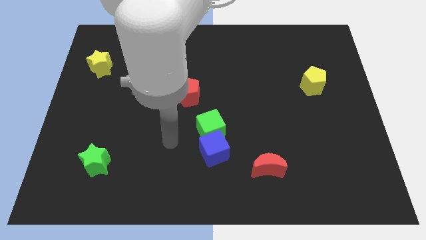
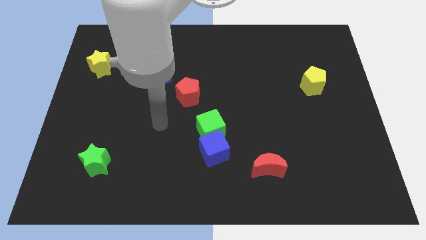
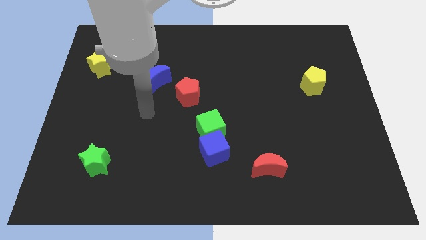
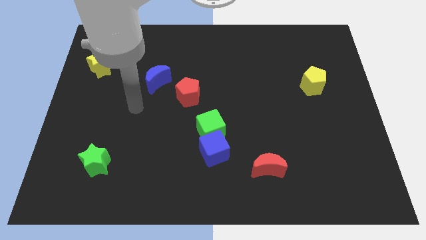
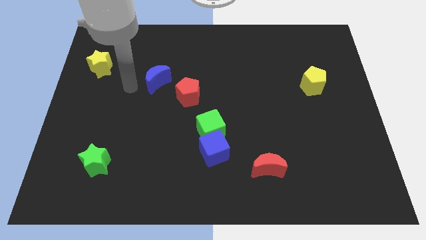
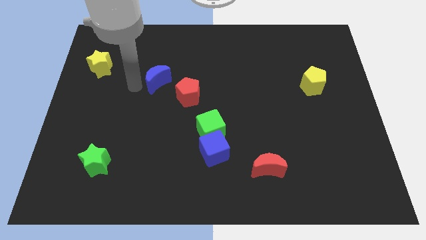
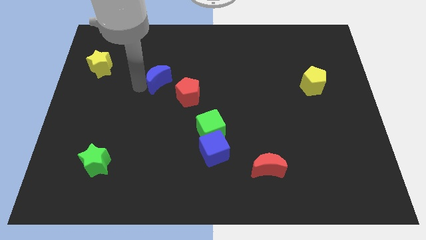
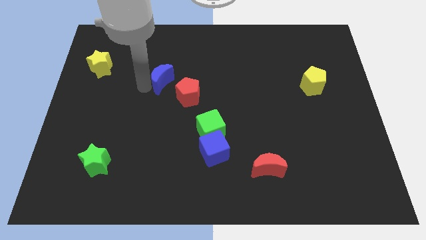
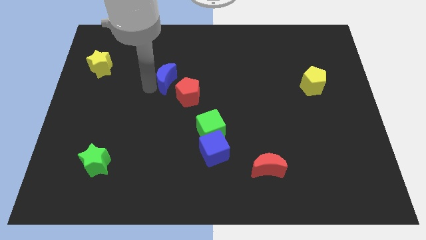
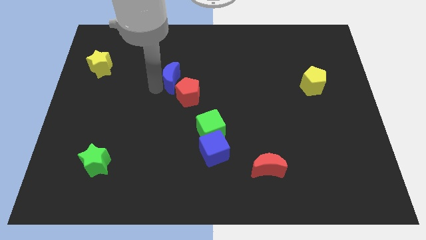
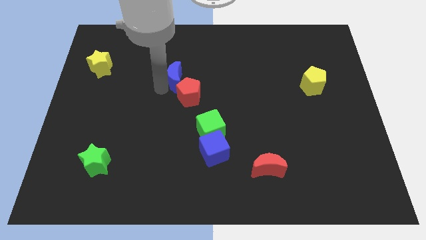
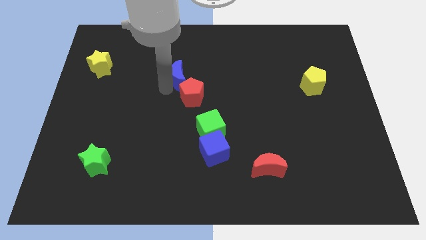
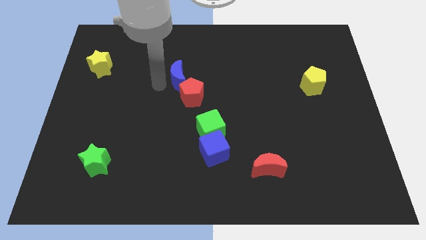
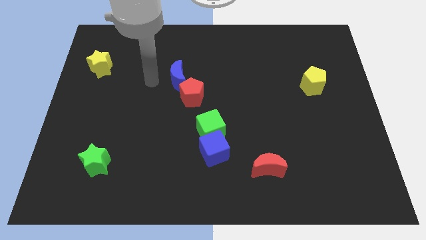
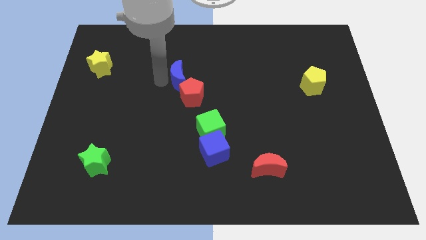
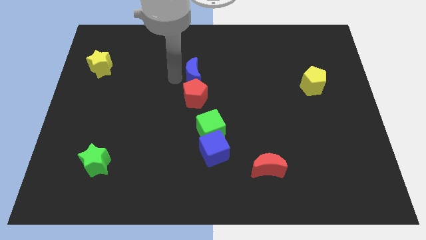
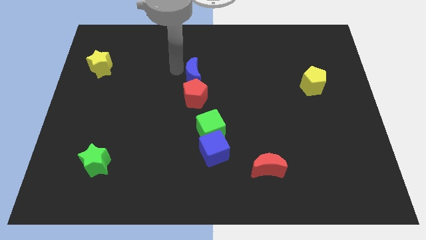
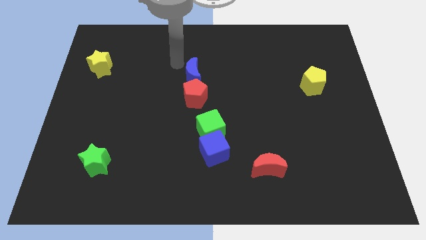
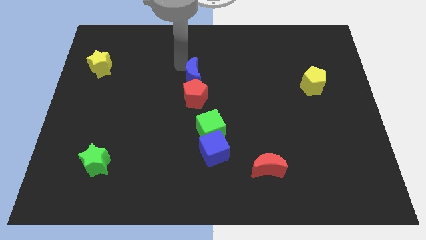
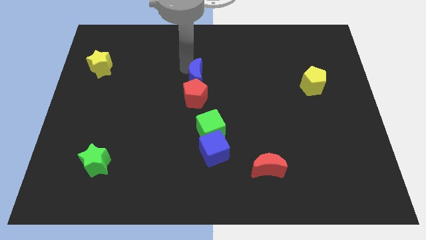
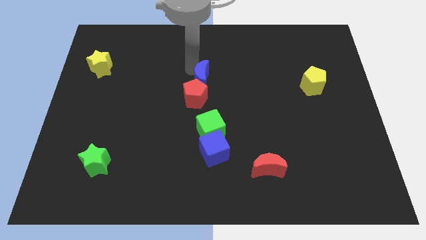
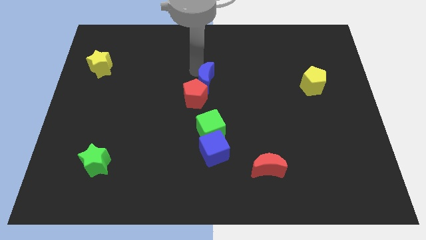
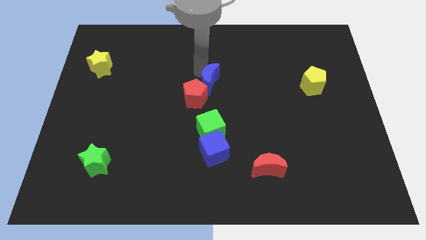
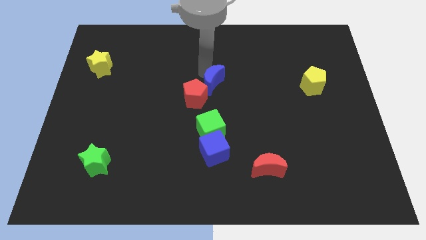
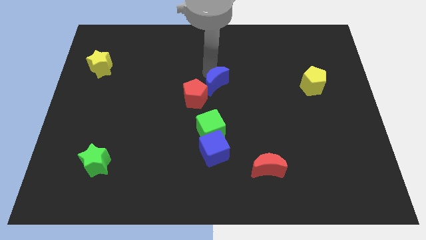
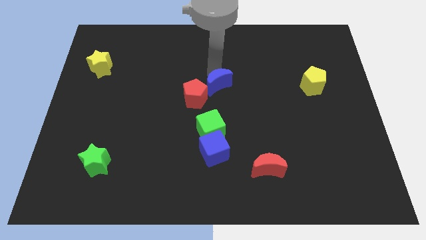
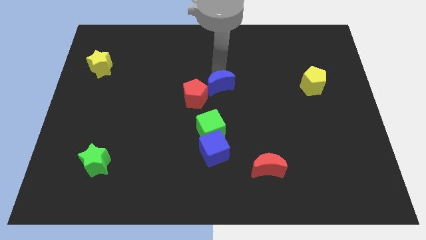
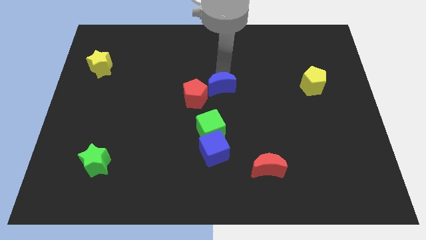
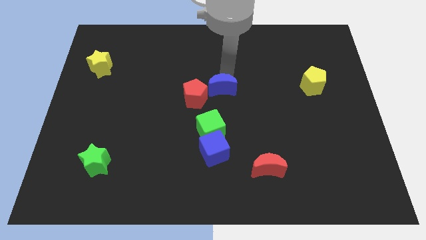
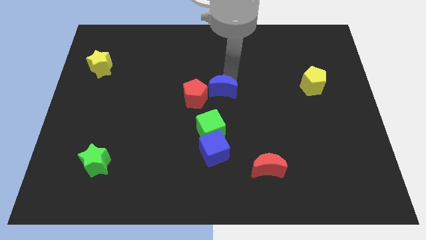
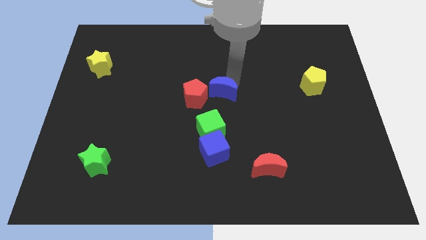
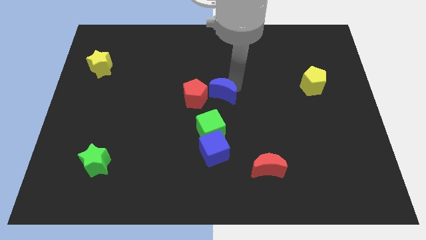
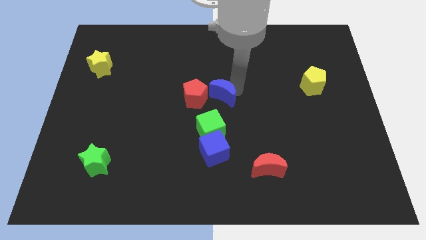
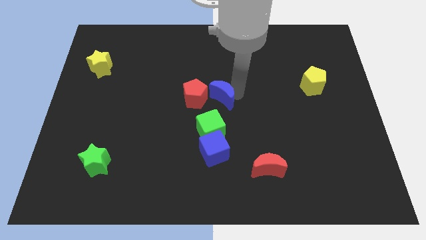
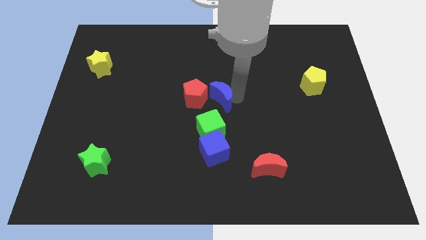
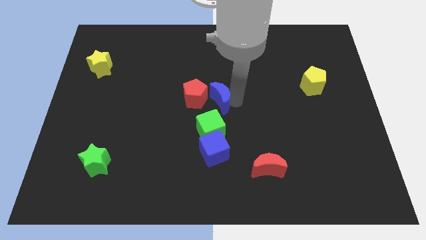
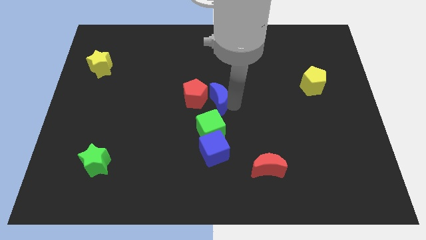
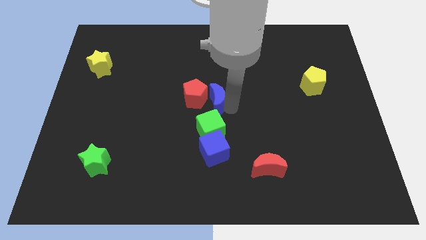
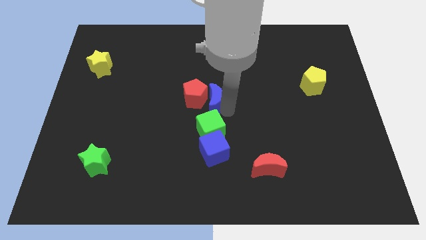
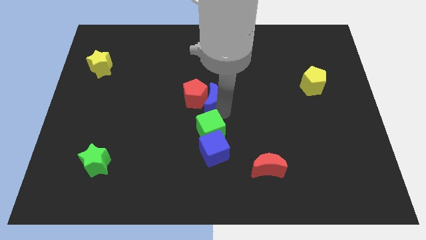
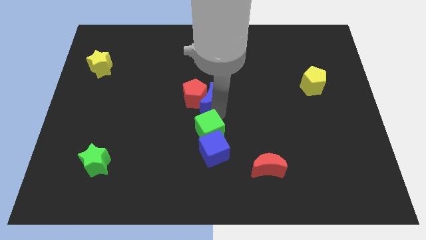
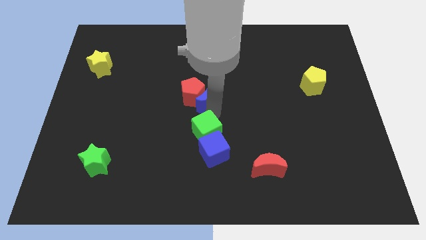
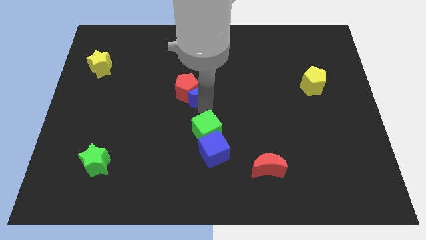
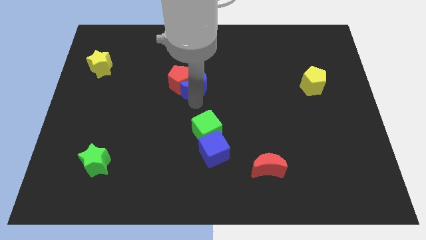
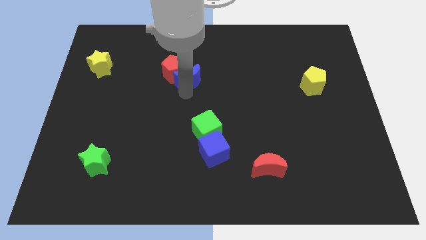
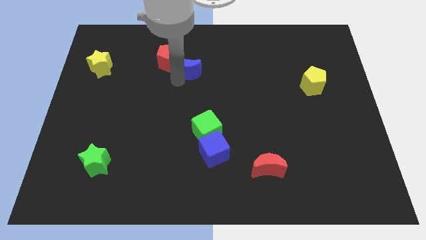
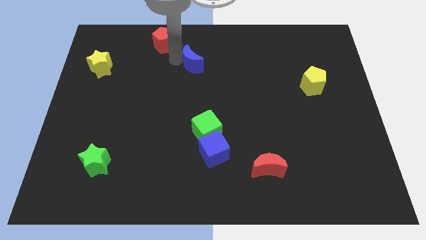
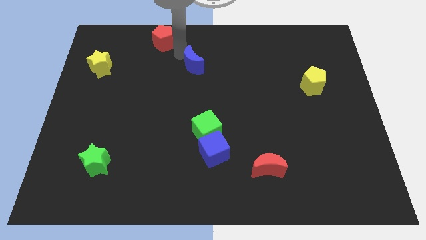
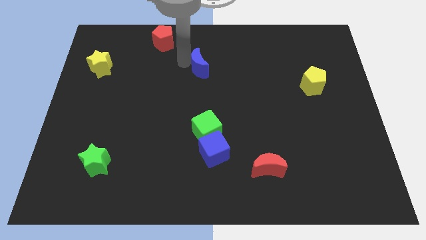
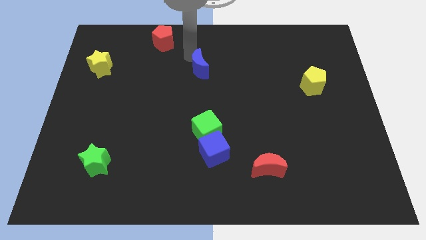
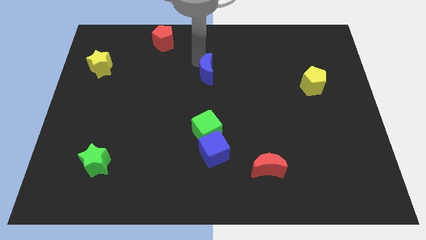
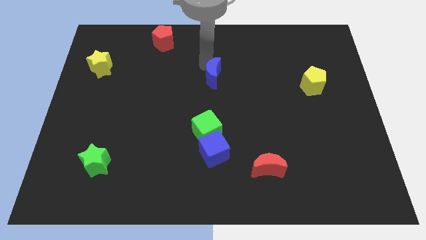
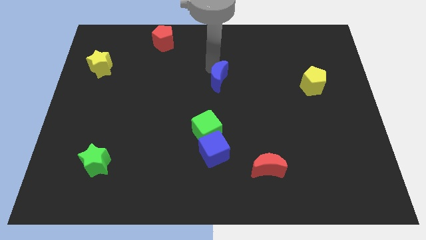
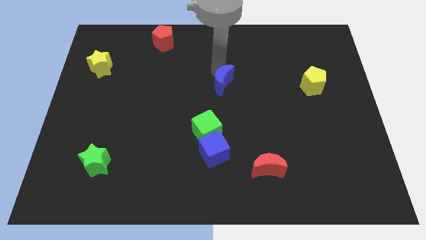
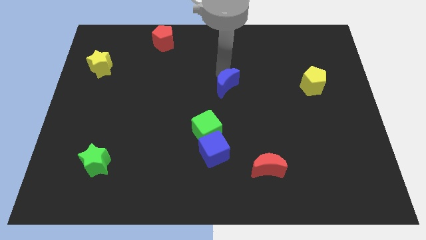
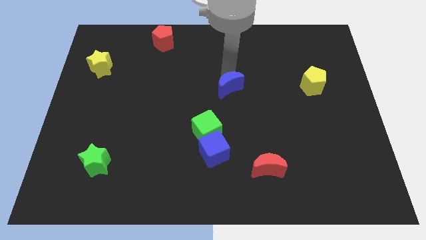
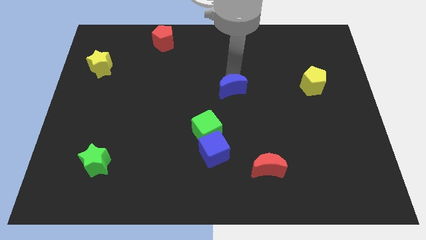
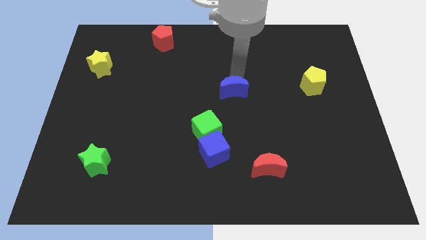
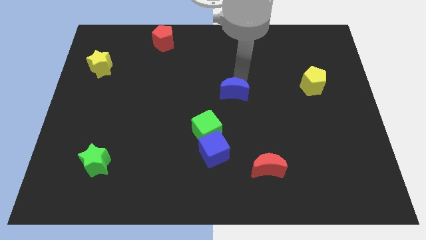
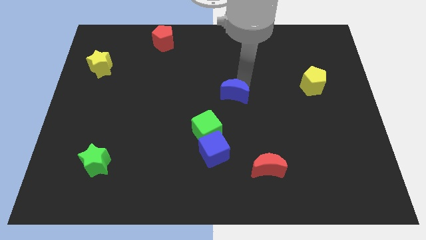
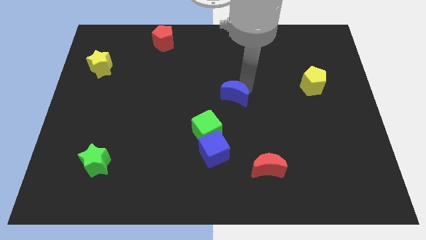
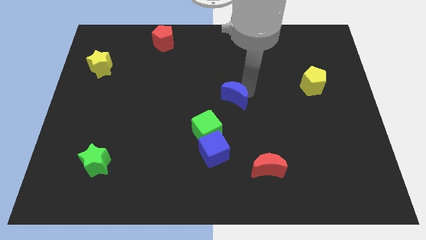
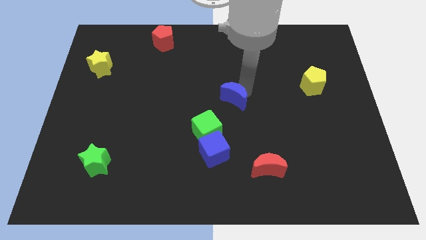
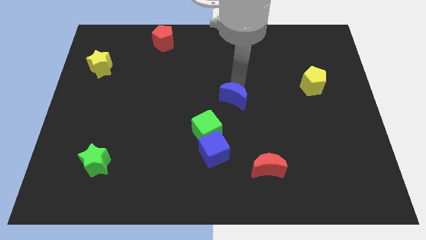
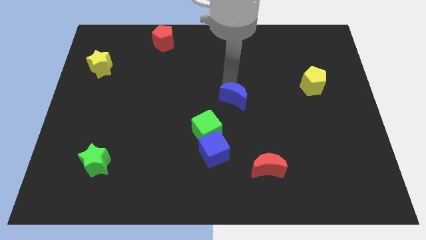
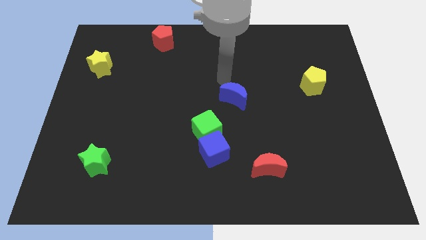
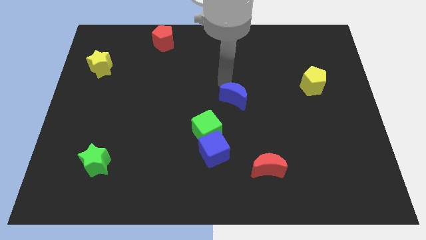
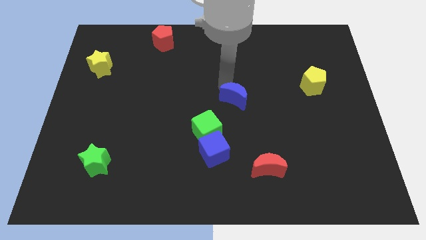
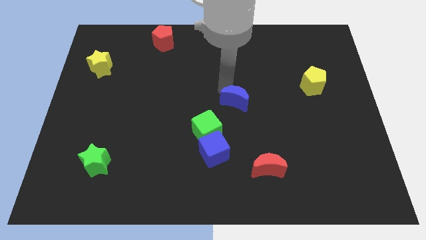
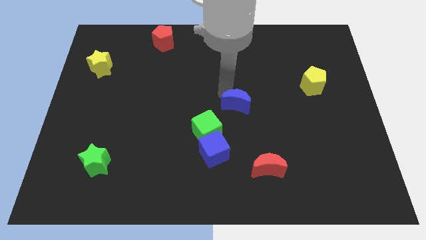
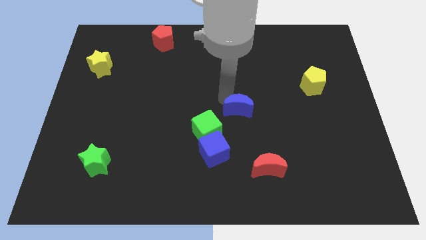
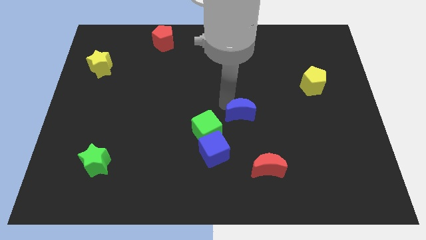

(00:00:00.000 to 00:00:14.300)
move the blue moon to the right of the green cube
